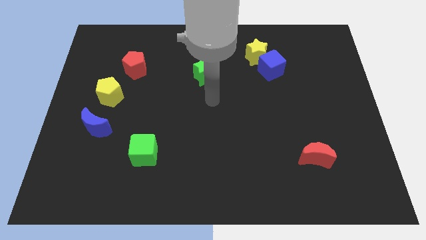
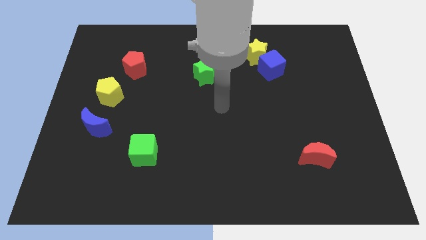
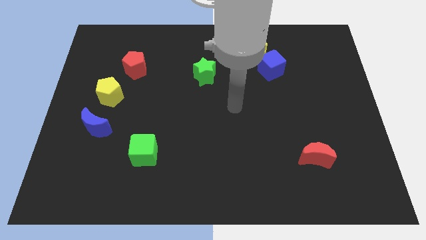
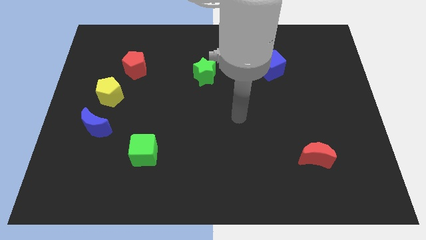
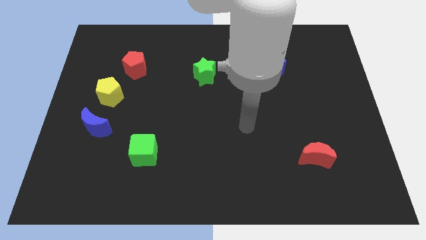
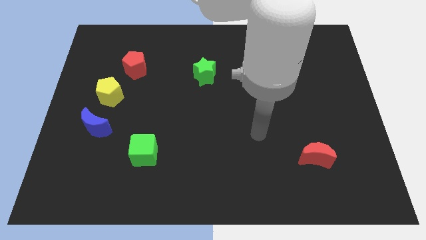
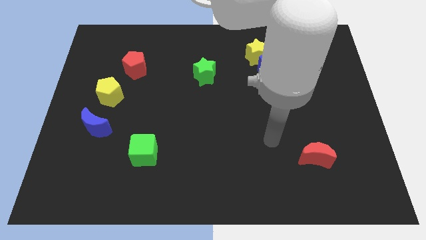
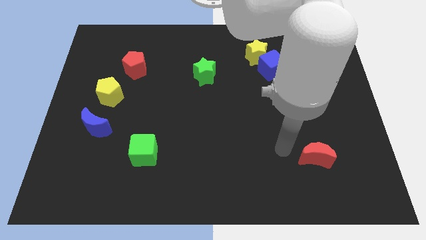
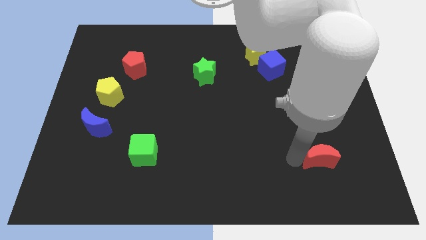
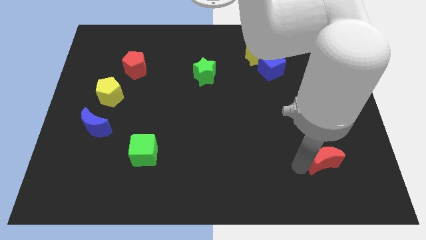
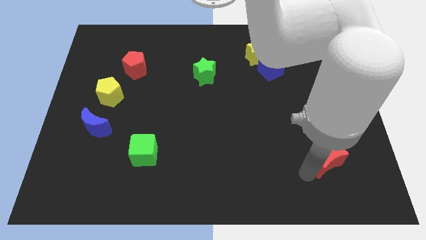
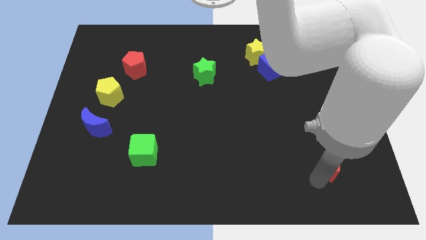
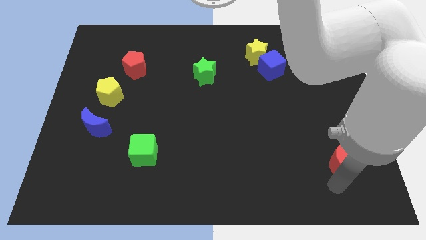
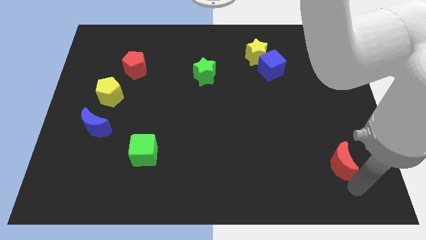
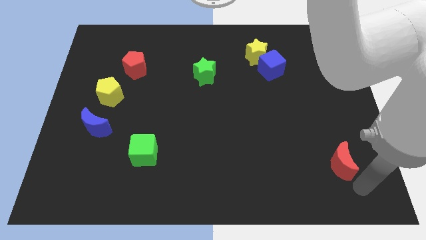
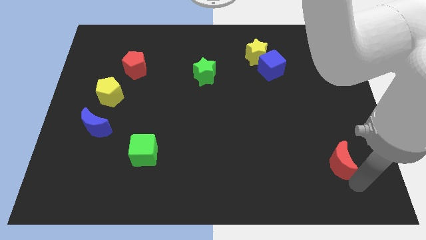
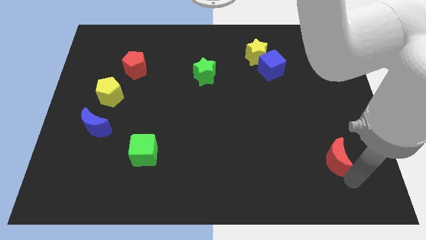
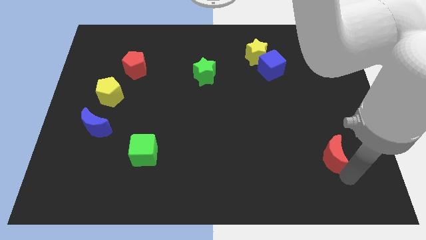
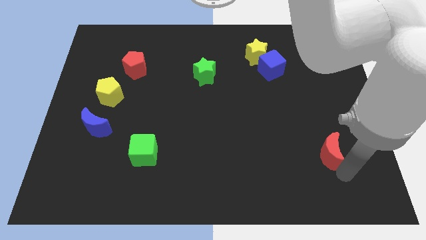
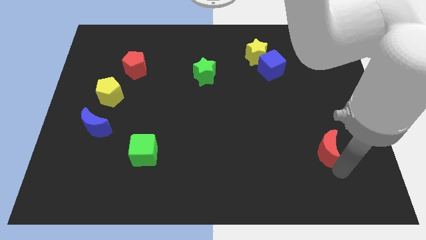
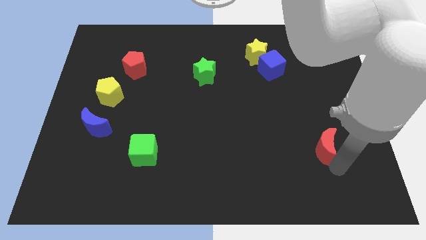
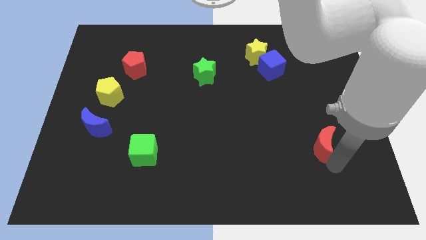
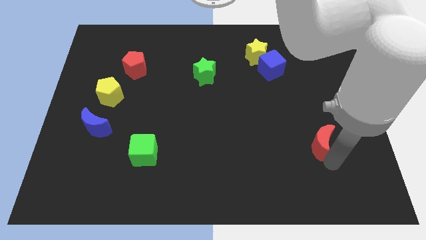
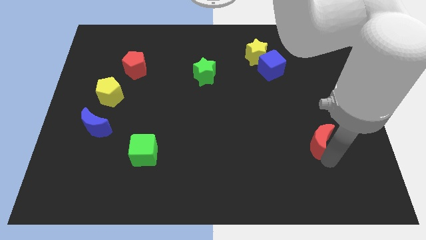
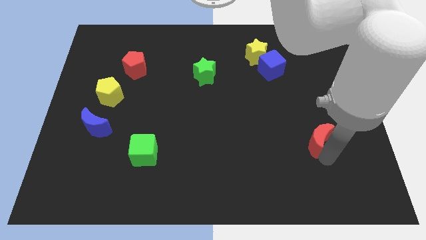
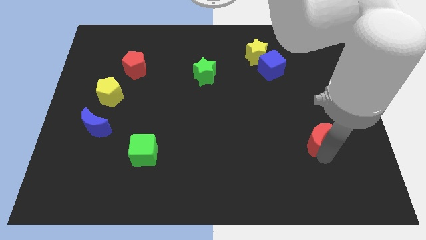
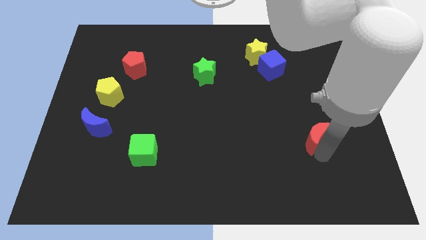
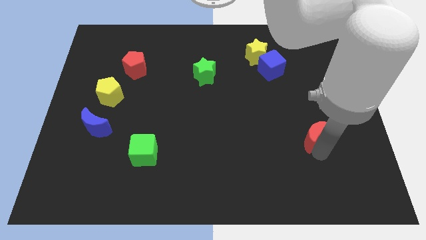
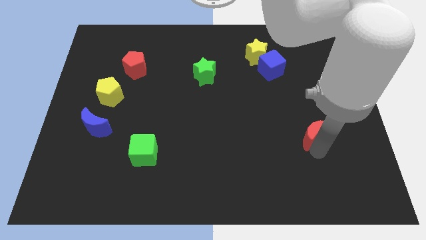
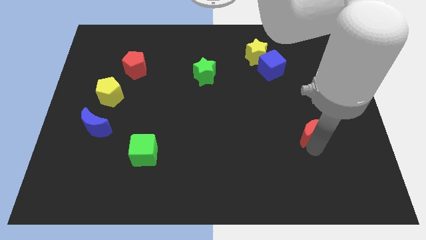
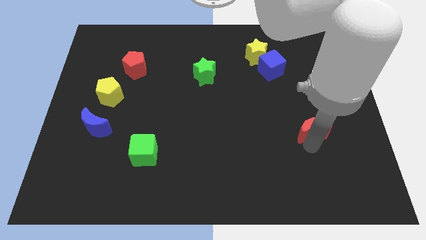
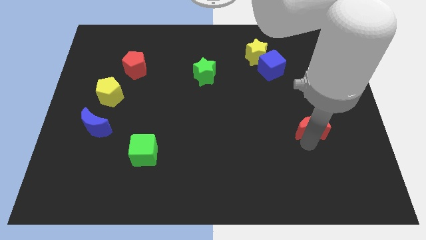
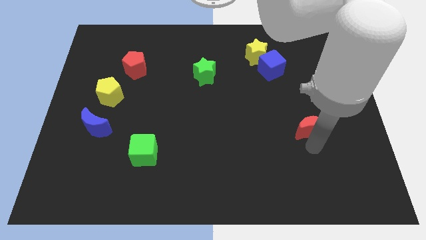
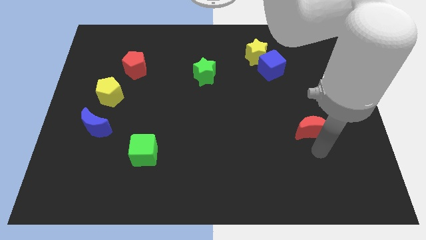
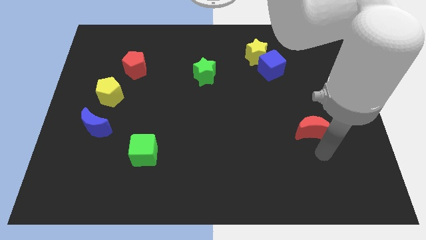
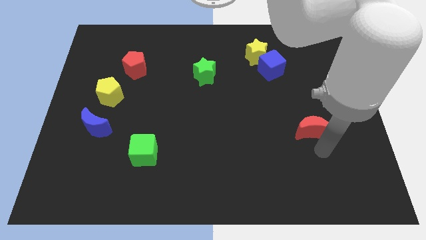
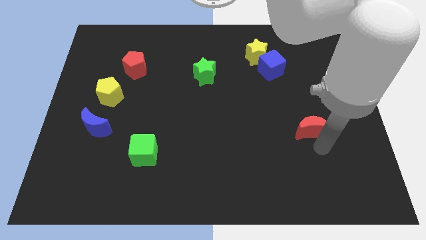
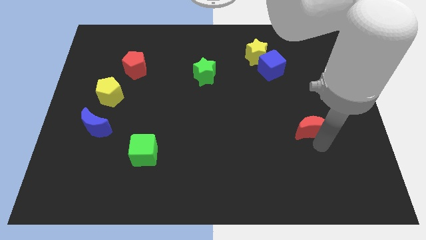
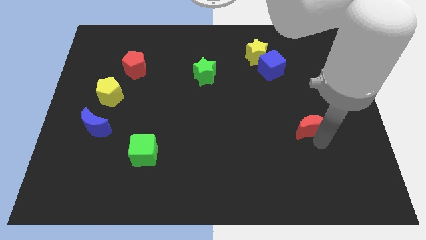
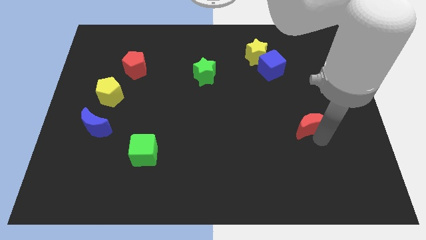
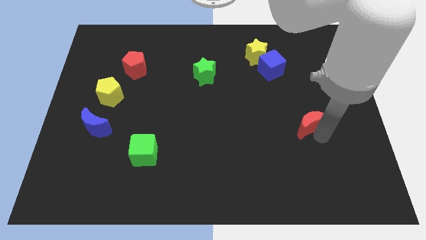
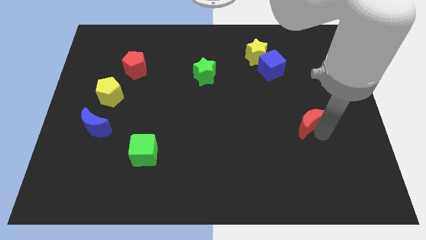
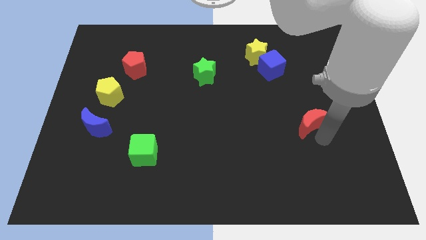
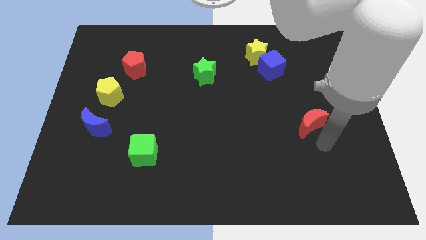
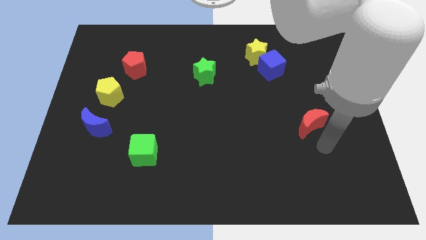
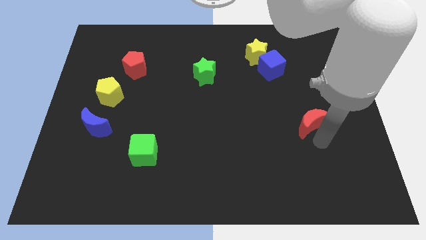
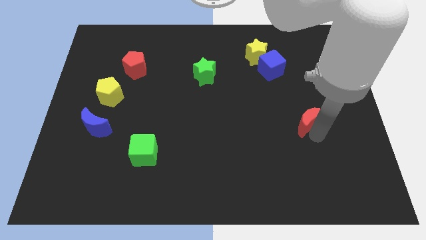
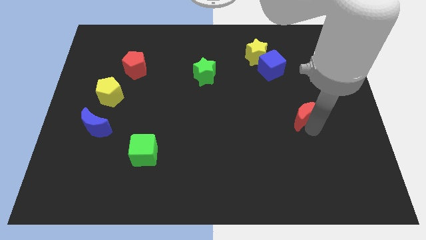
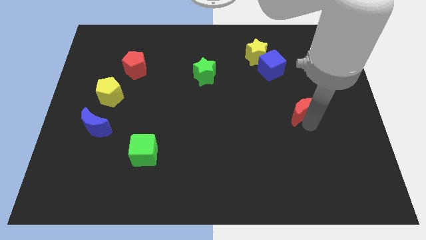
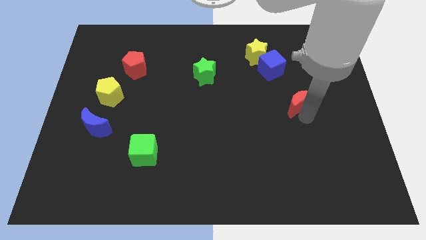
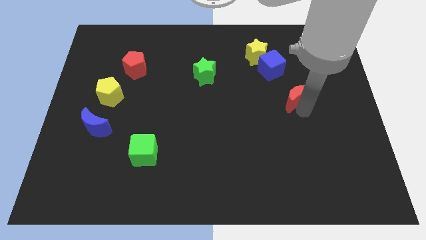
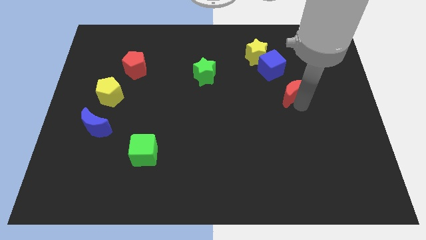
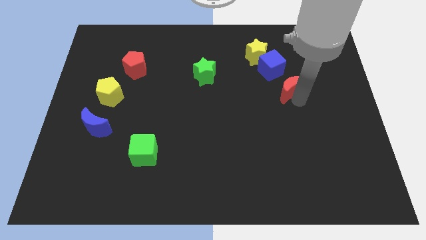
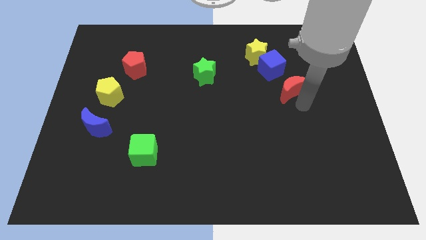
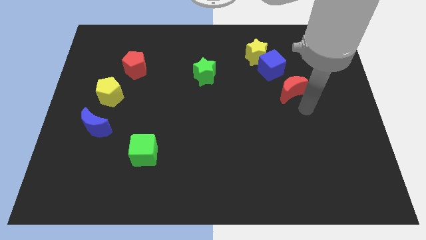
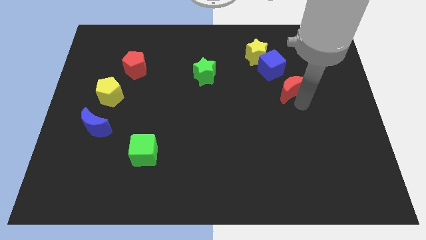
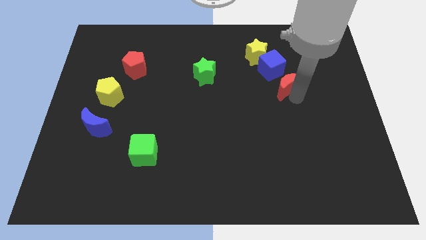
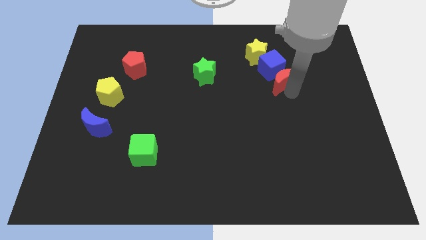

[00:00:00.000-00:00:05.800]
move the red moon next to the blue cube

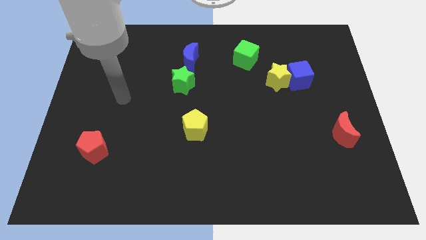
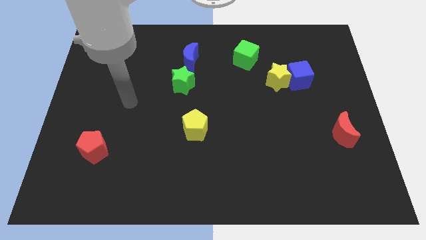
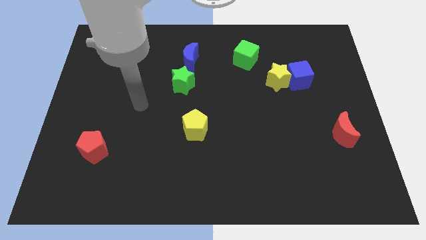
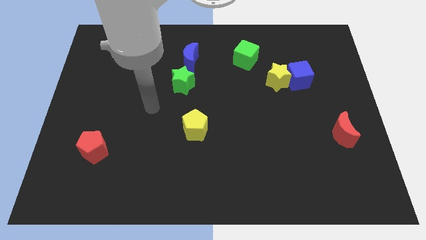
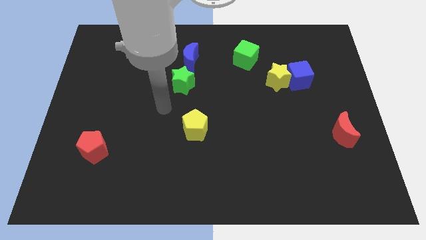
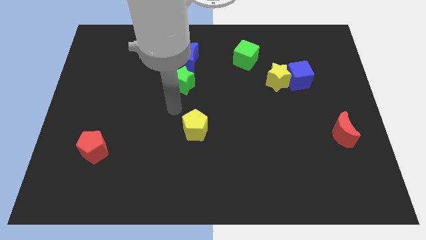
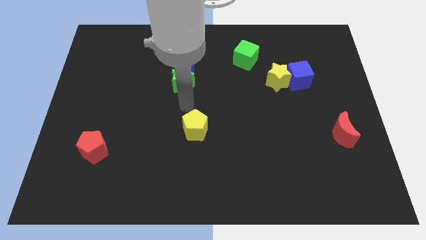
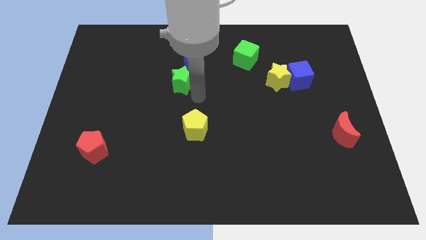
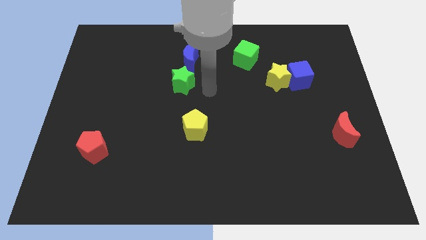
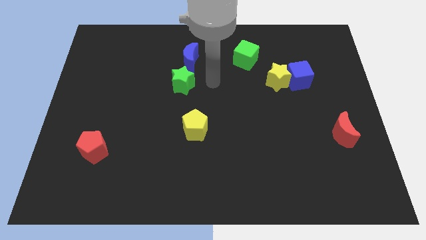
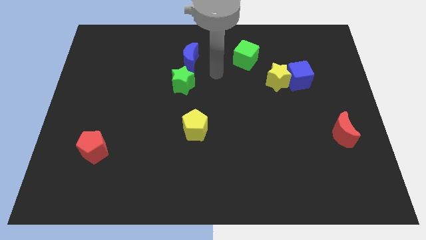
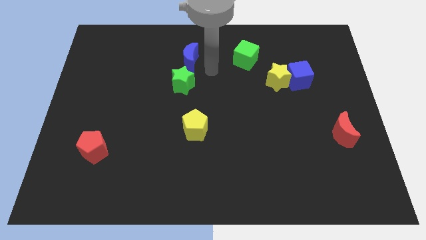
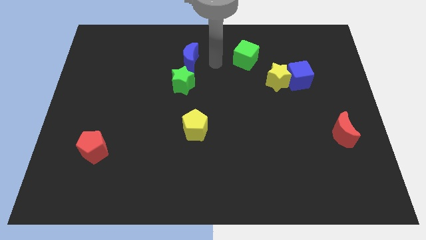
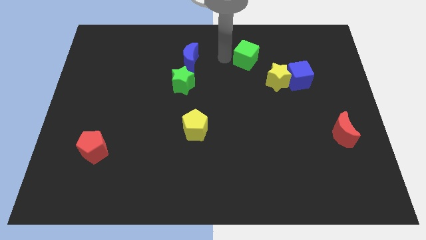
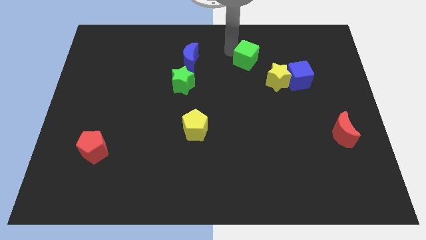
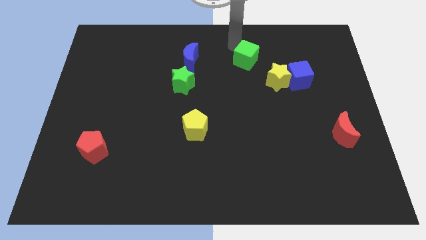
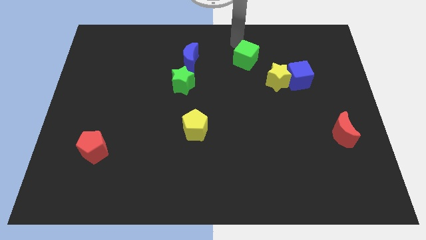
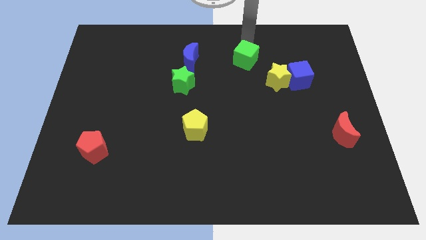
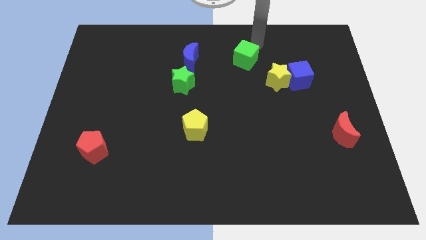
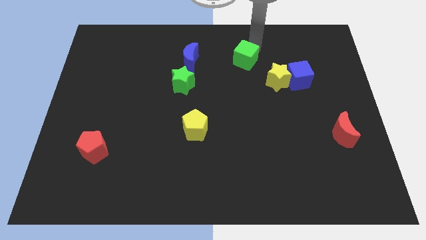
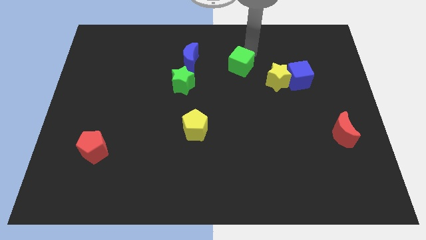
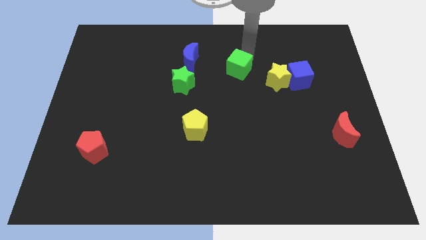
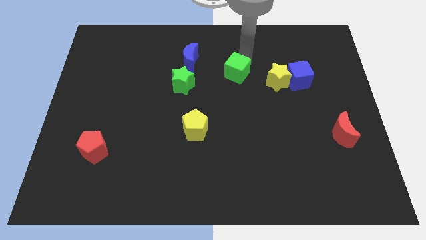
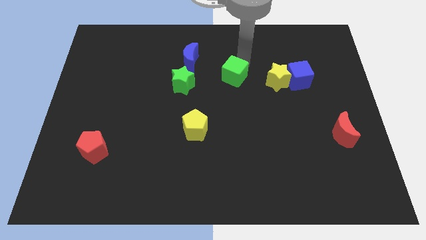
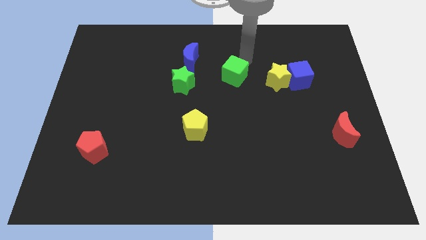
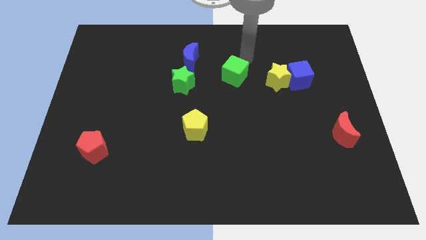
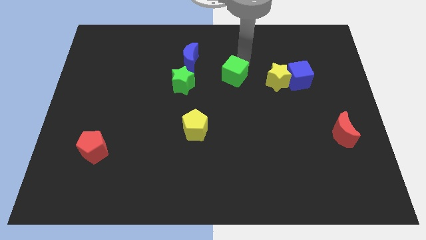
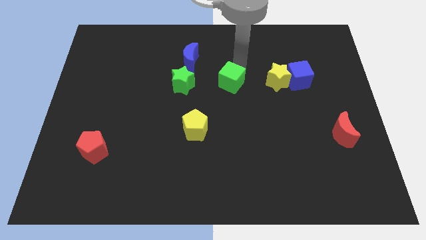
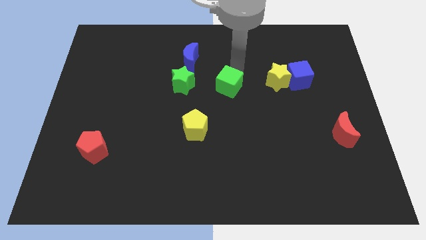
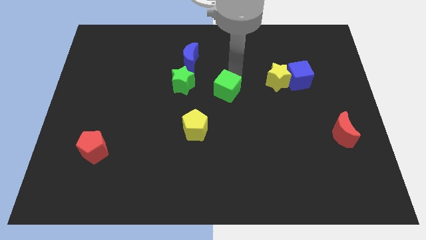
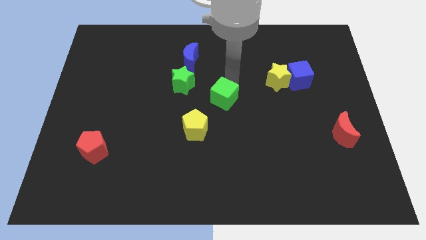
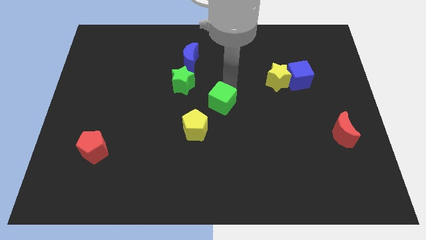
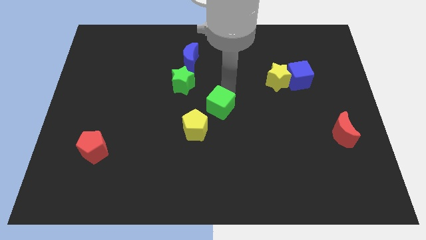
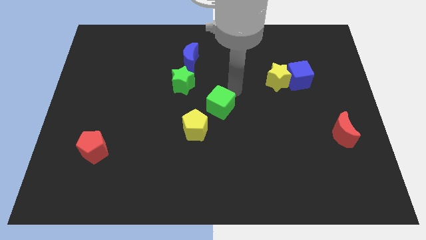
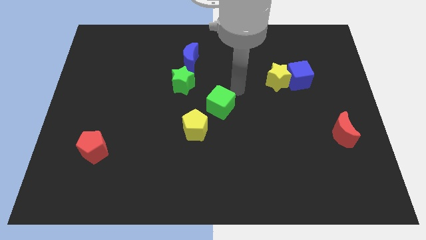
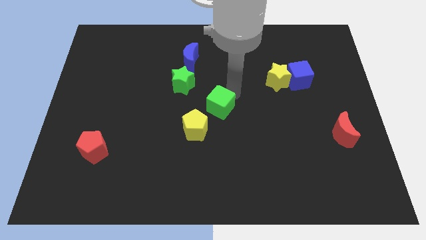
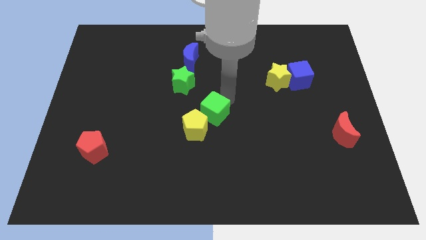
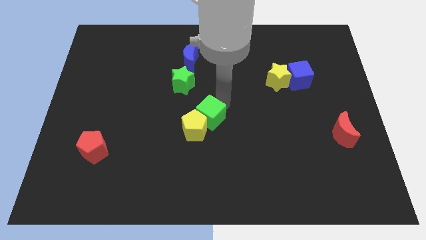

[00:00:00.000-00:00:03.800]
move the green cube to the yellow pentagon
